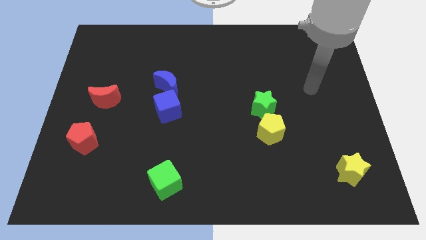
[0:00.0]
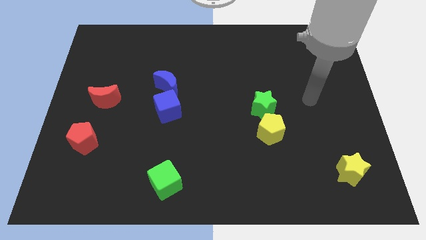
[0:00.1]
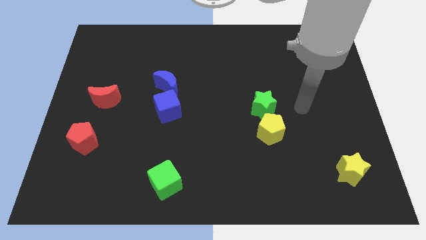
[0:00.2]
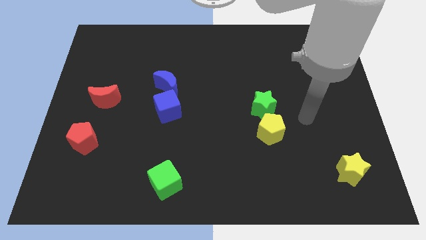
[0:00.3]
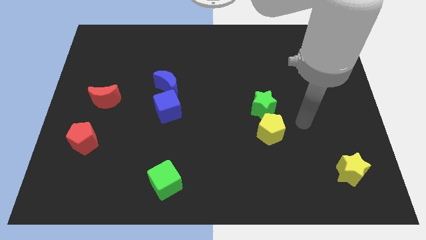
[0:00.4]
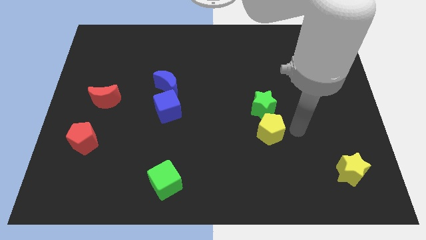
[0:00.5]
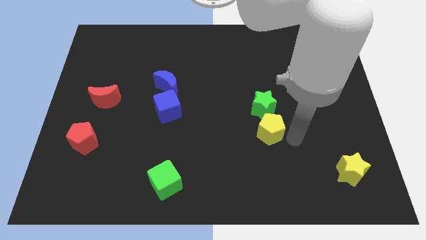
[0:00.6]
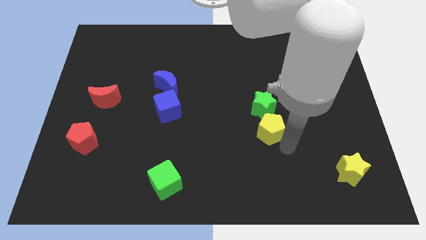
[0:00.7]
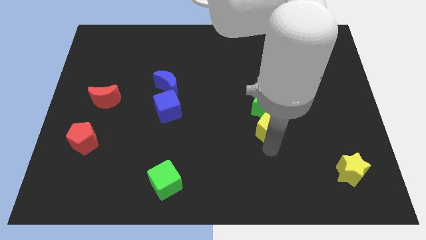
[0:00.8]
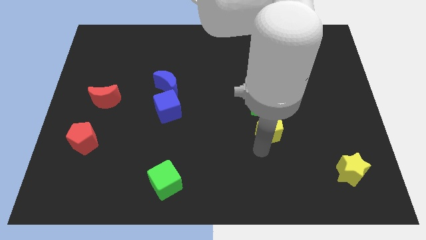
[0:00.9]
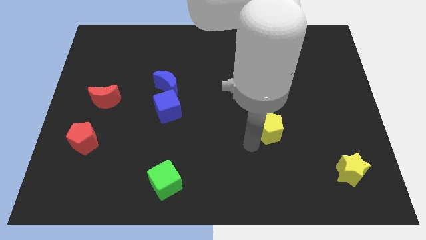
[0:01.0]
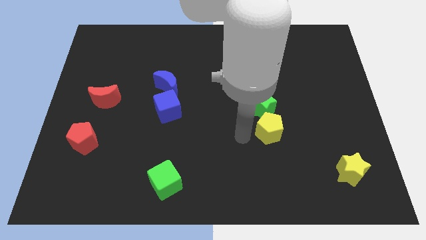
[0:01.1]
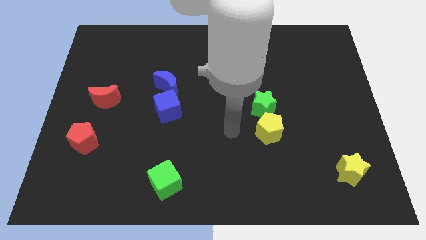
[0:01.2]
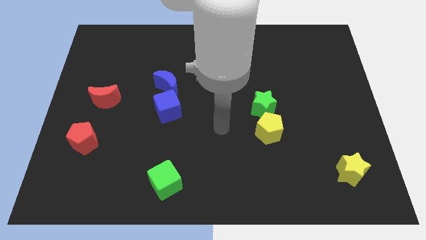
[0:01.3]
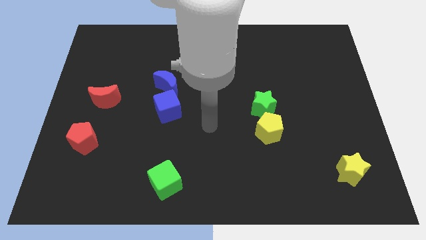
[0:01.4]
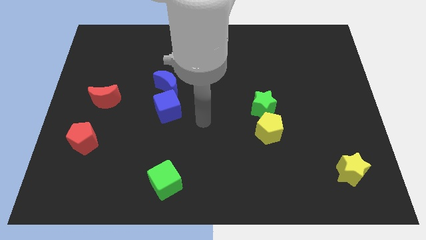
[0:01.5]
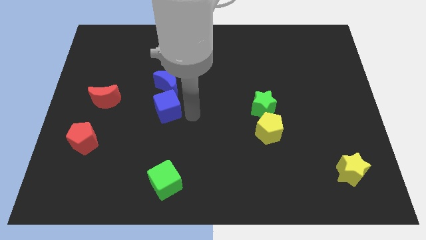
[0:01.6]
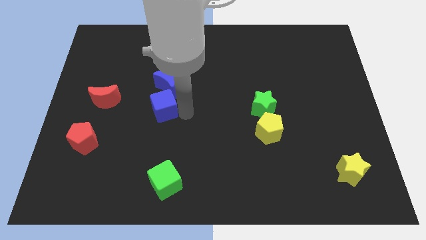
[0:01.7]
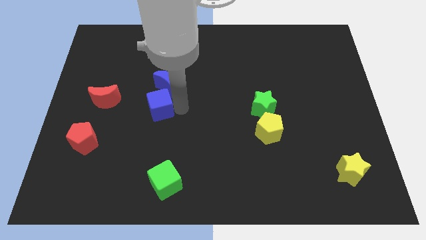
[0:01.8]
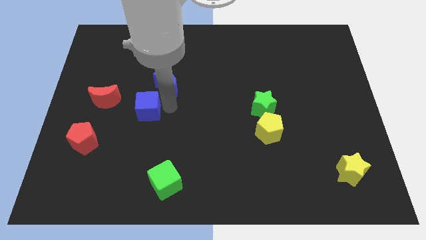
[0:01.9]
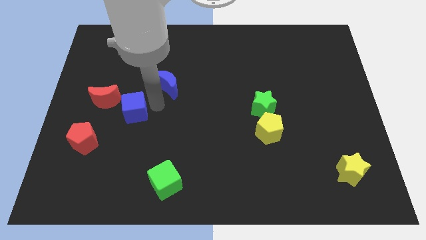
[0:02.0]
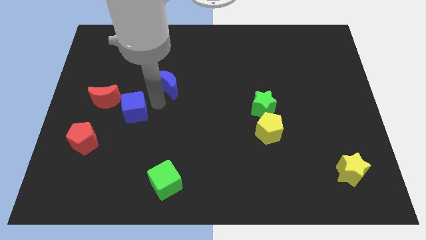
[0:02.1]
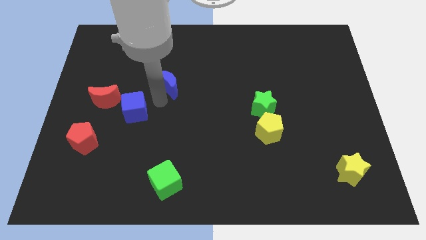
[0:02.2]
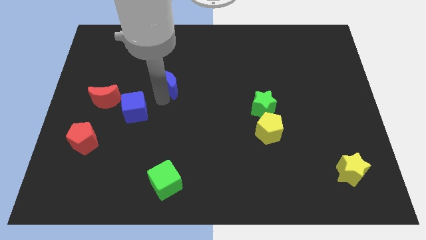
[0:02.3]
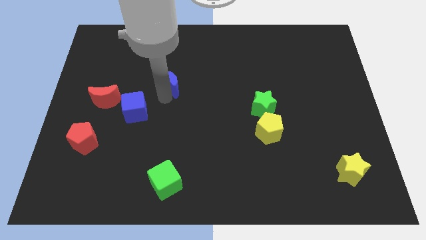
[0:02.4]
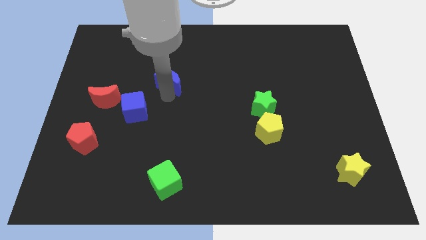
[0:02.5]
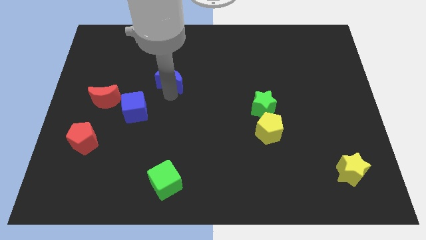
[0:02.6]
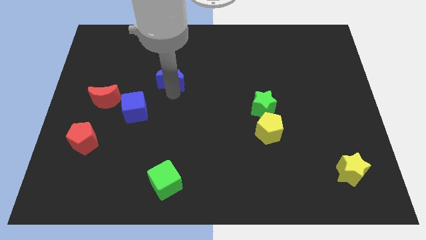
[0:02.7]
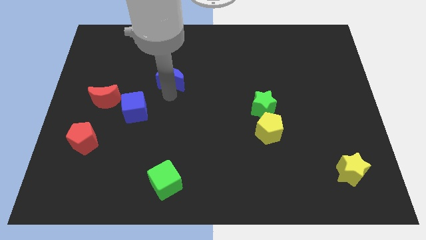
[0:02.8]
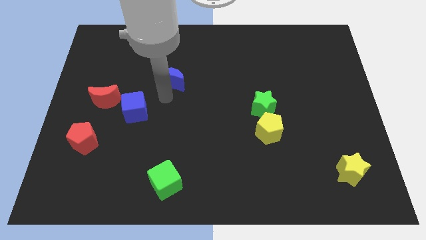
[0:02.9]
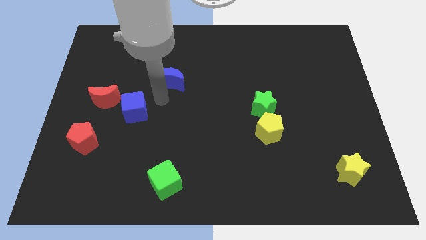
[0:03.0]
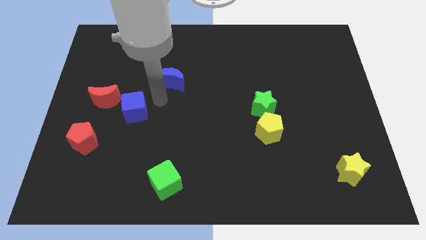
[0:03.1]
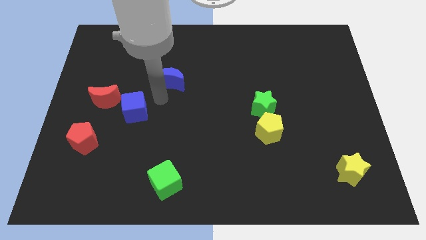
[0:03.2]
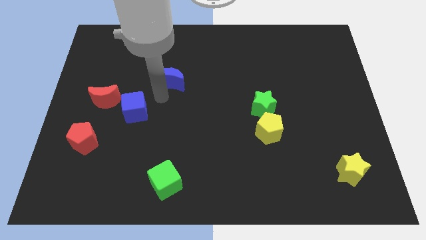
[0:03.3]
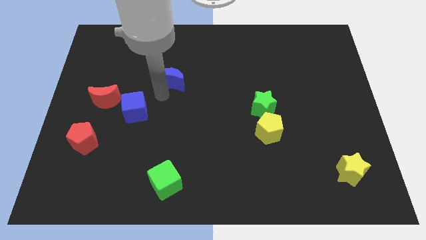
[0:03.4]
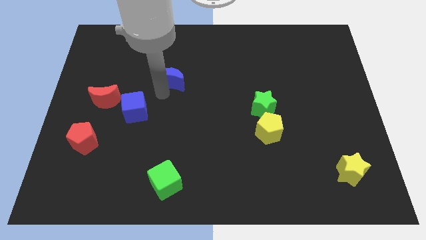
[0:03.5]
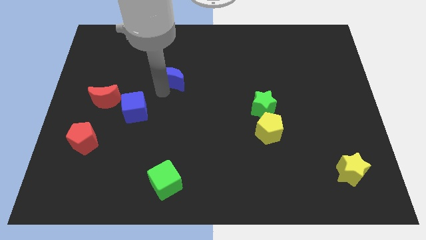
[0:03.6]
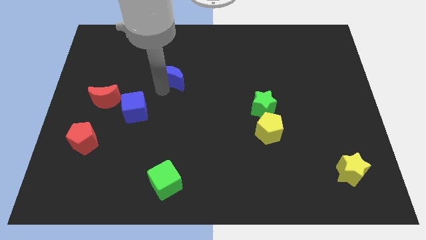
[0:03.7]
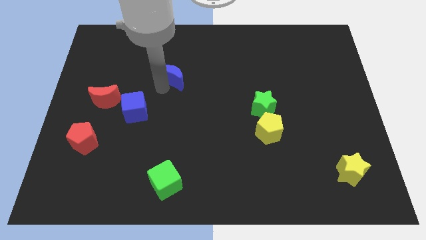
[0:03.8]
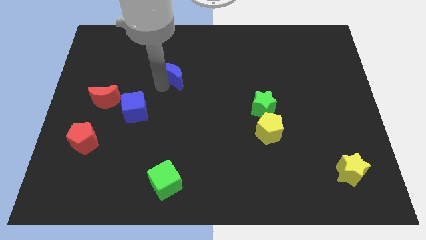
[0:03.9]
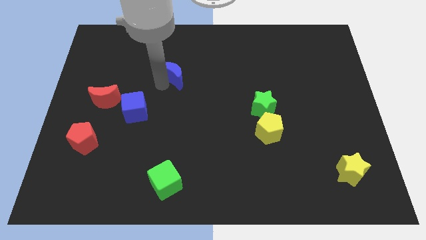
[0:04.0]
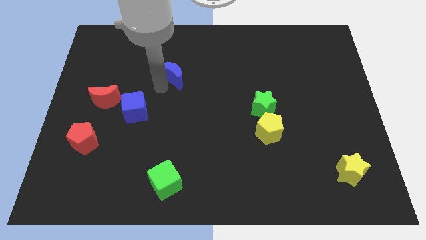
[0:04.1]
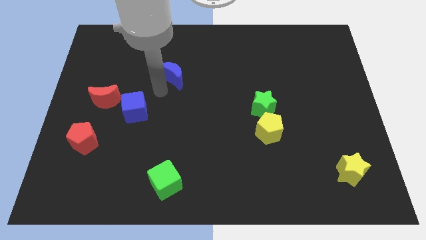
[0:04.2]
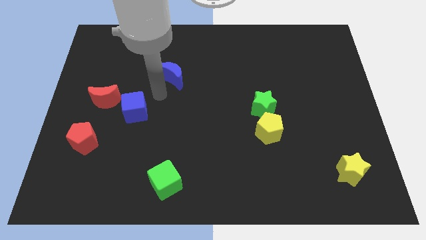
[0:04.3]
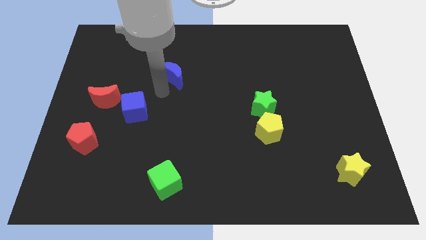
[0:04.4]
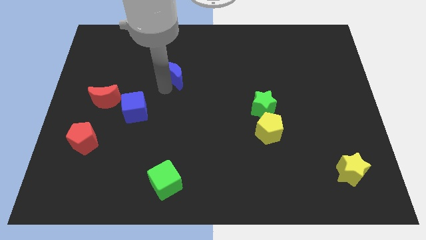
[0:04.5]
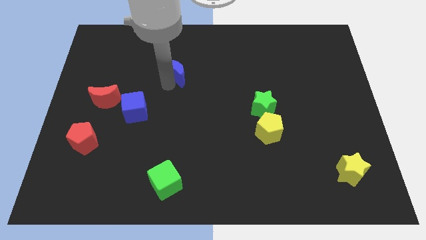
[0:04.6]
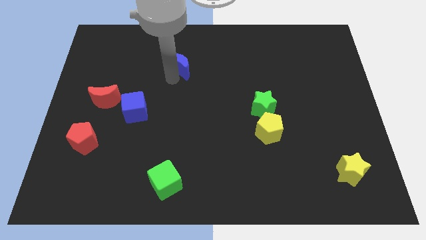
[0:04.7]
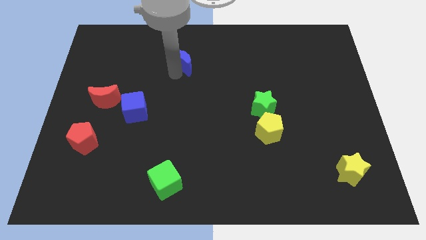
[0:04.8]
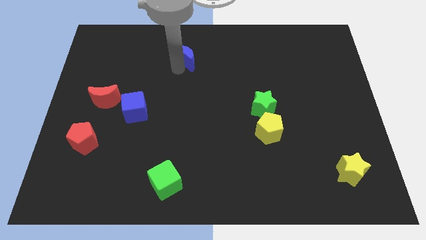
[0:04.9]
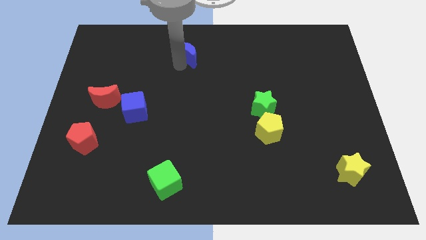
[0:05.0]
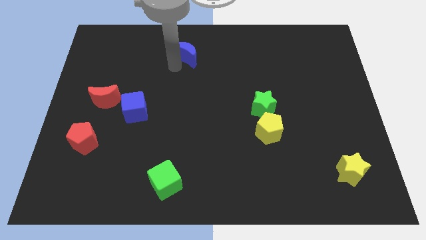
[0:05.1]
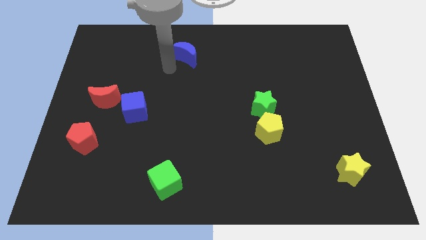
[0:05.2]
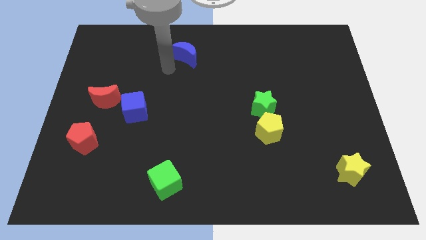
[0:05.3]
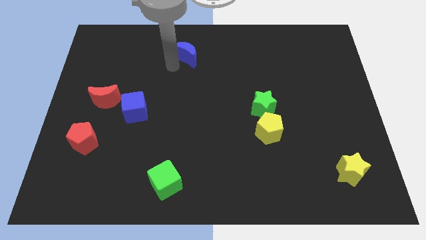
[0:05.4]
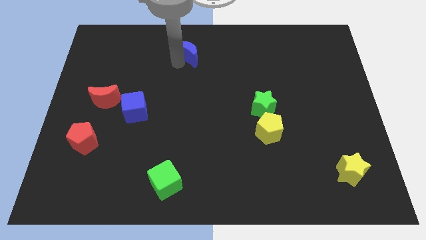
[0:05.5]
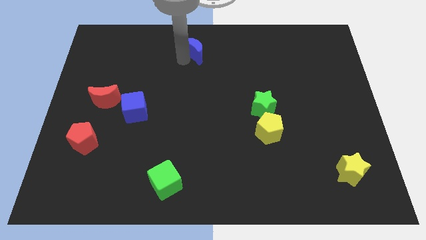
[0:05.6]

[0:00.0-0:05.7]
move the blue moon to the top

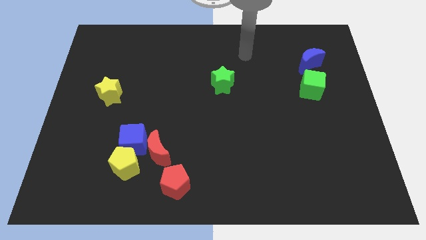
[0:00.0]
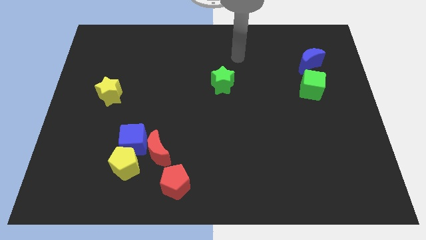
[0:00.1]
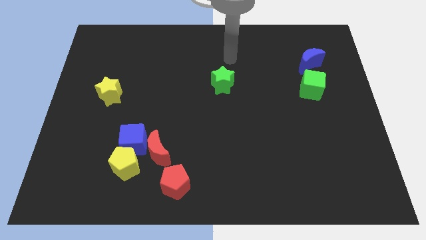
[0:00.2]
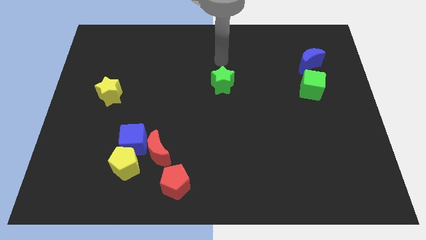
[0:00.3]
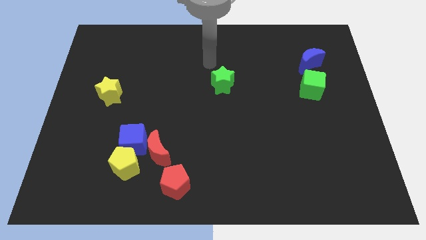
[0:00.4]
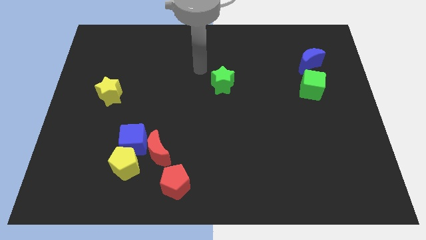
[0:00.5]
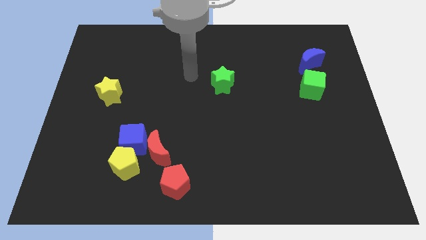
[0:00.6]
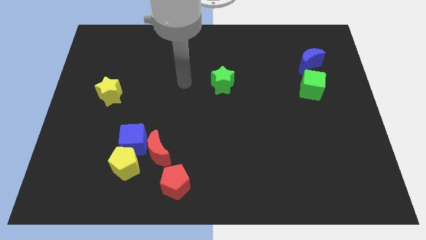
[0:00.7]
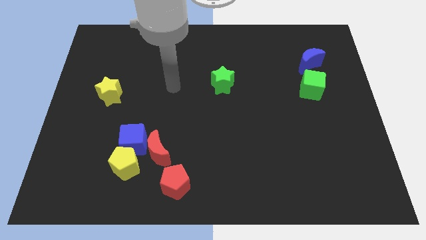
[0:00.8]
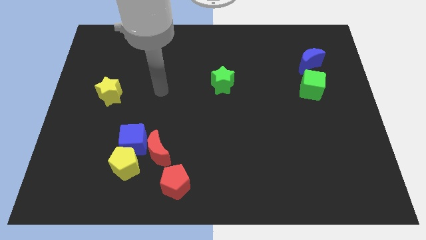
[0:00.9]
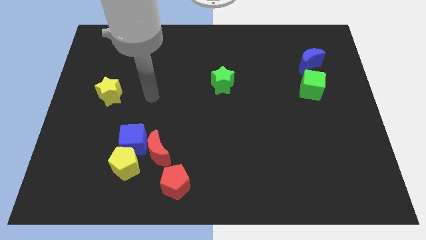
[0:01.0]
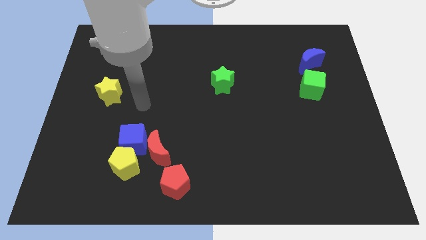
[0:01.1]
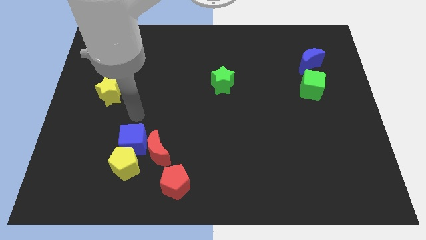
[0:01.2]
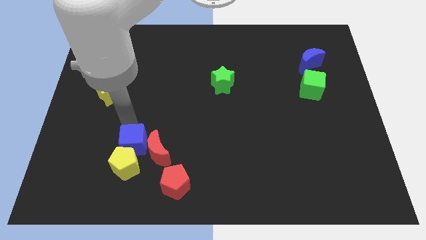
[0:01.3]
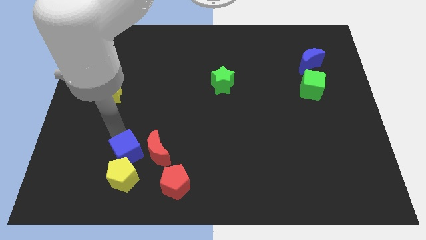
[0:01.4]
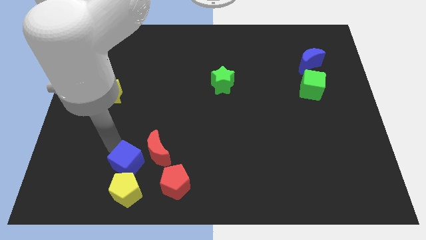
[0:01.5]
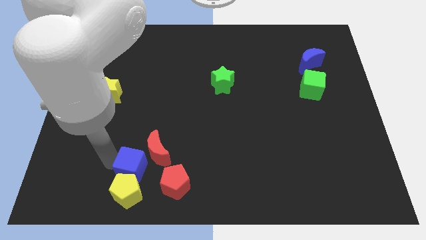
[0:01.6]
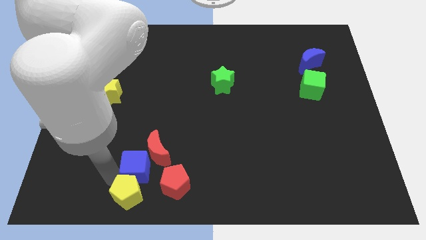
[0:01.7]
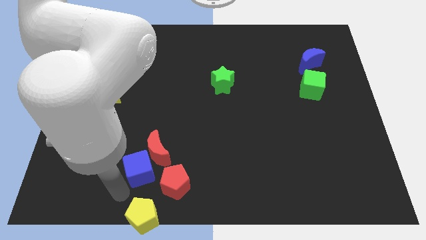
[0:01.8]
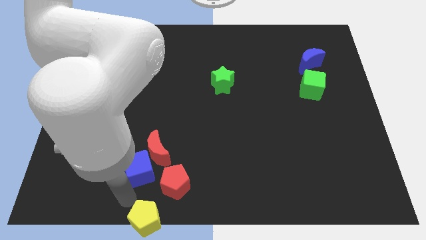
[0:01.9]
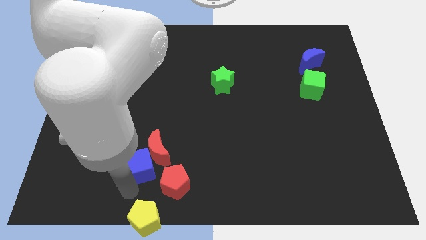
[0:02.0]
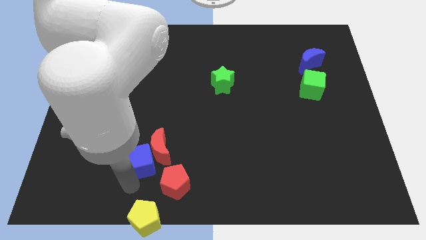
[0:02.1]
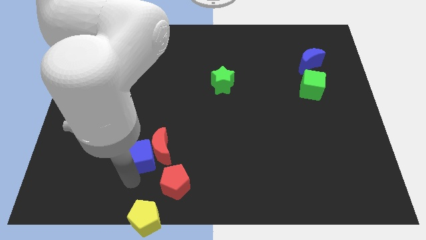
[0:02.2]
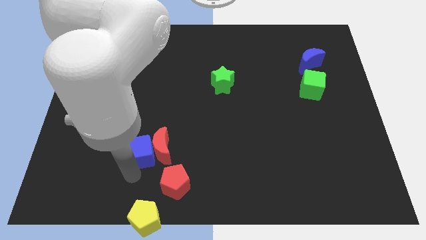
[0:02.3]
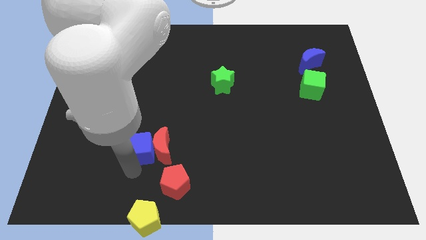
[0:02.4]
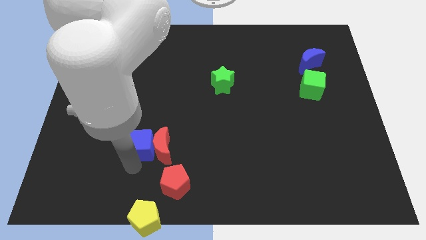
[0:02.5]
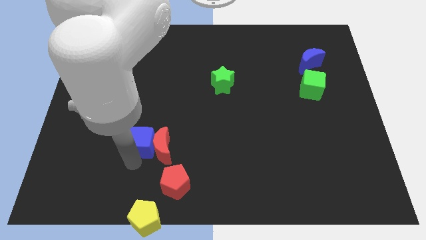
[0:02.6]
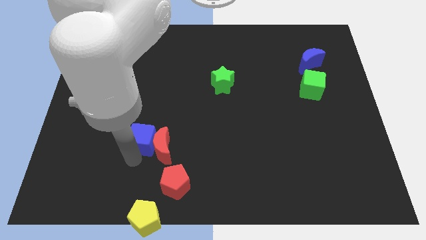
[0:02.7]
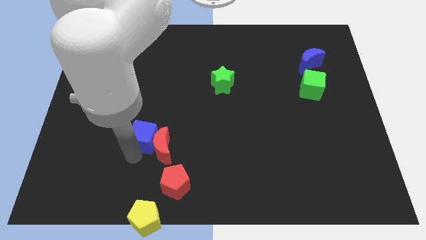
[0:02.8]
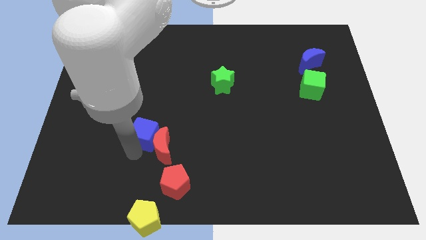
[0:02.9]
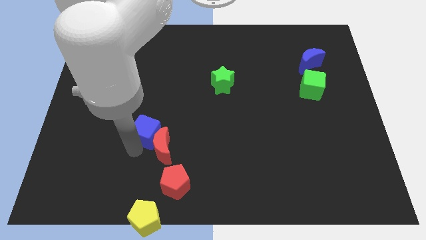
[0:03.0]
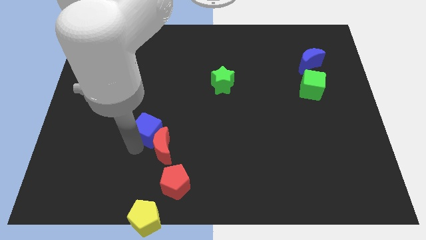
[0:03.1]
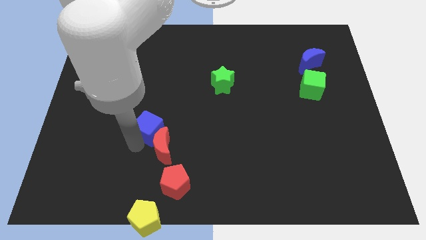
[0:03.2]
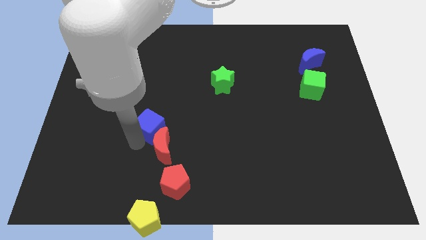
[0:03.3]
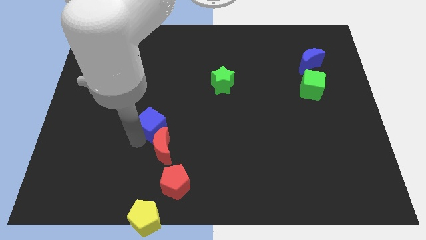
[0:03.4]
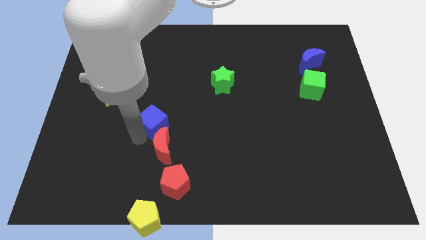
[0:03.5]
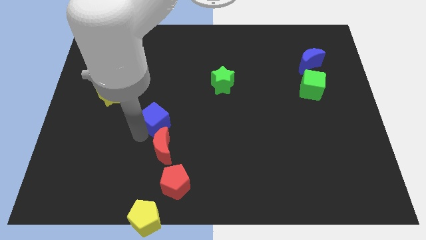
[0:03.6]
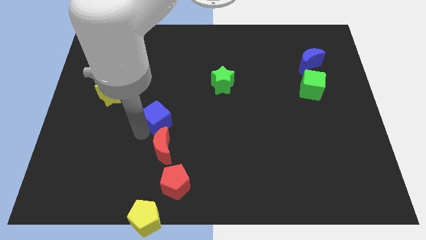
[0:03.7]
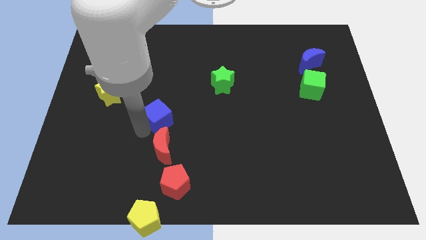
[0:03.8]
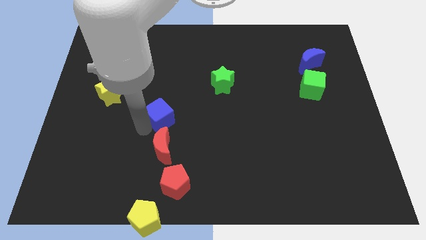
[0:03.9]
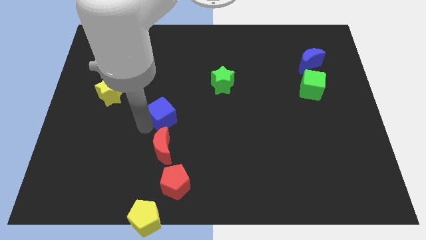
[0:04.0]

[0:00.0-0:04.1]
put the blue cube to the center
